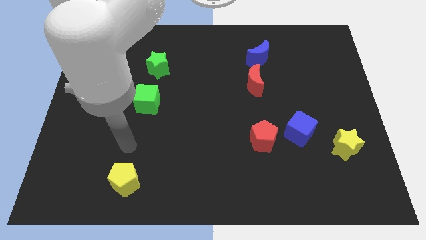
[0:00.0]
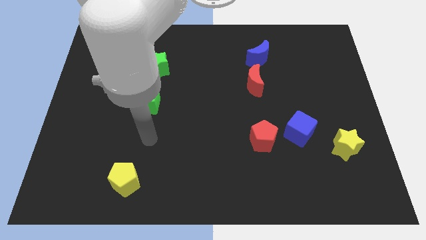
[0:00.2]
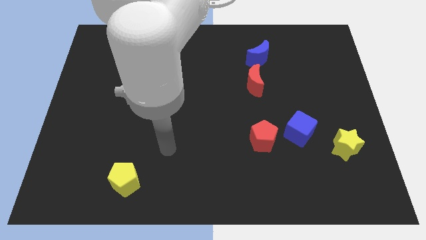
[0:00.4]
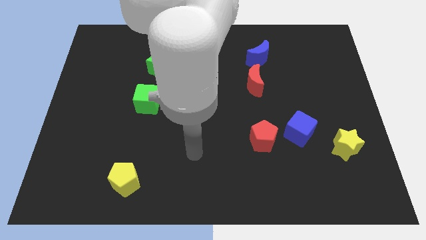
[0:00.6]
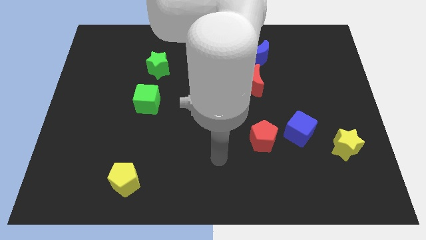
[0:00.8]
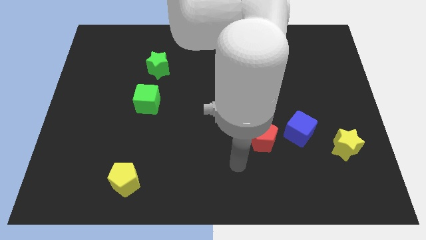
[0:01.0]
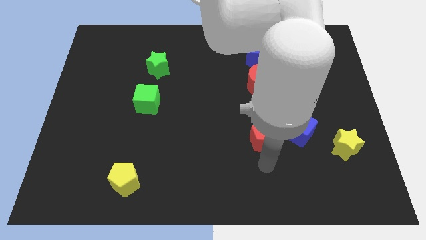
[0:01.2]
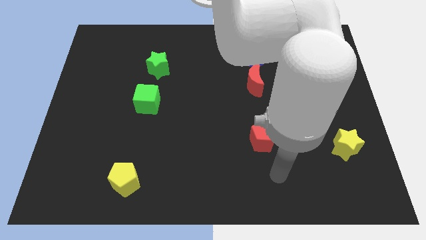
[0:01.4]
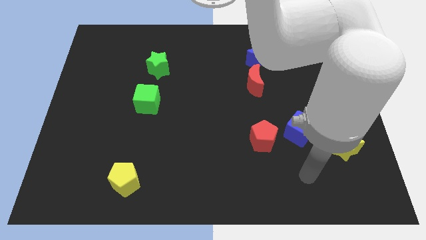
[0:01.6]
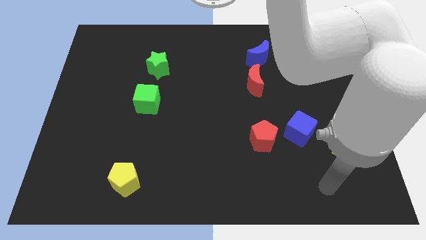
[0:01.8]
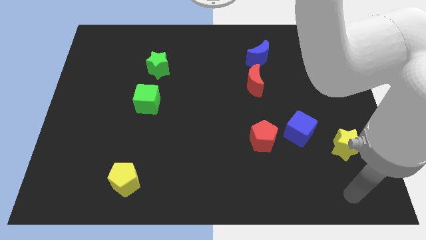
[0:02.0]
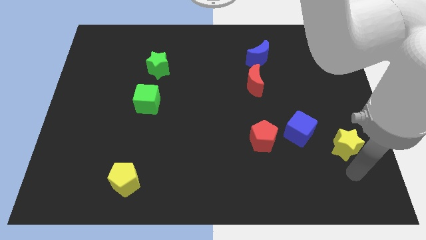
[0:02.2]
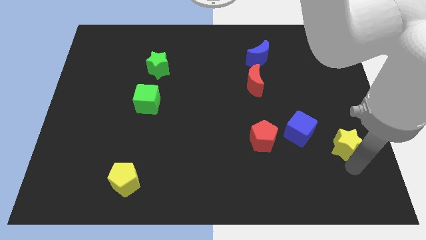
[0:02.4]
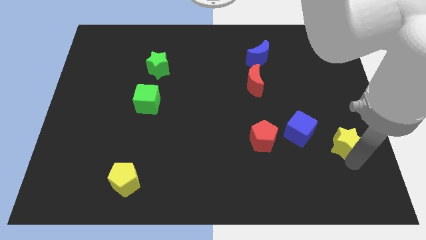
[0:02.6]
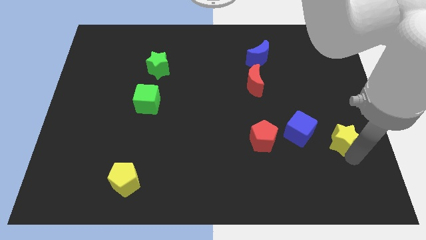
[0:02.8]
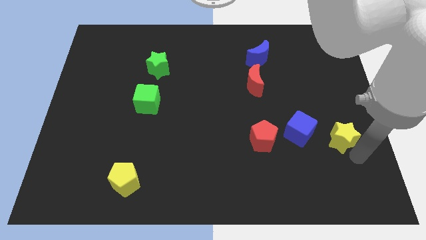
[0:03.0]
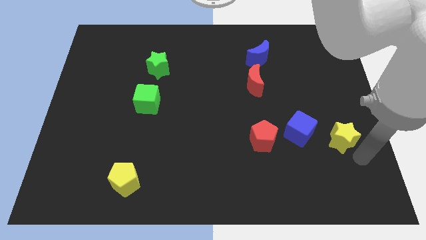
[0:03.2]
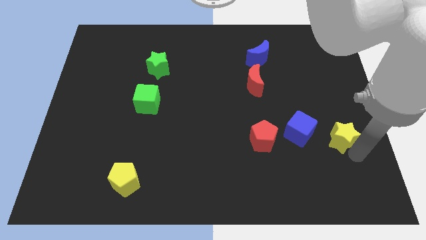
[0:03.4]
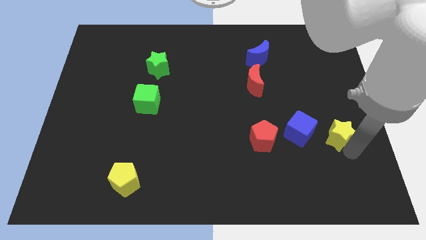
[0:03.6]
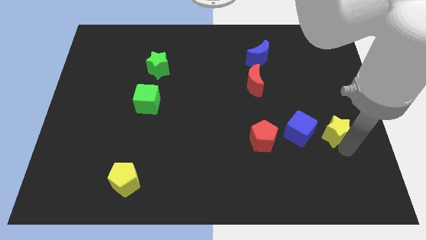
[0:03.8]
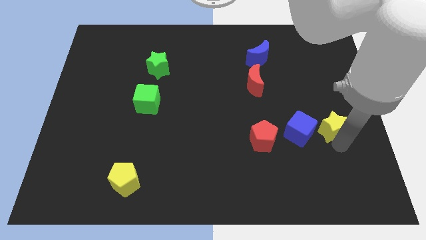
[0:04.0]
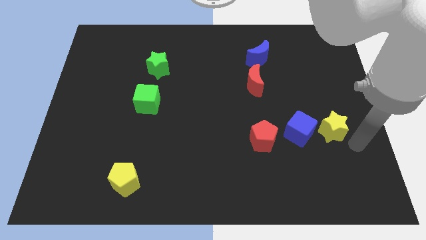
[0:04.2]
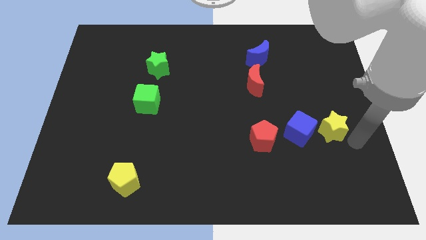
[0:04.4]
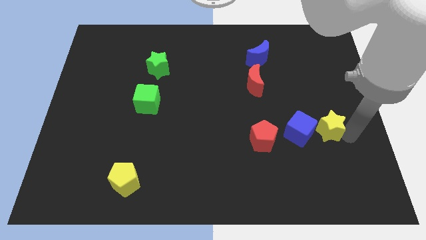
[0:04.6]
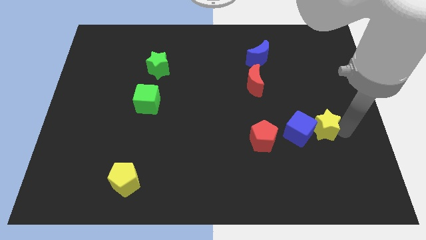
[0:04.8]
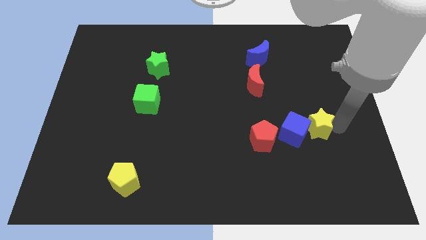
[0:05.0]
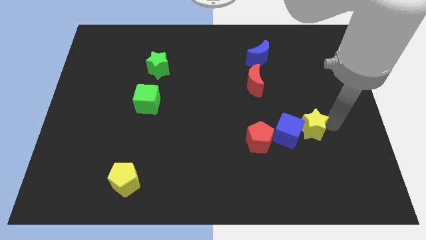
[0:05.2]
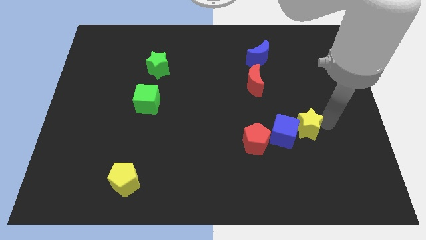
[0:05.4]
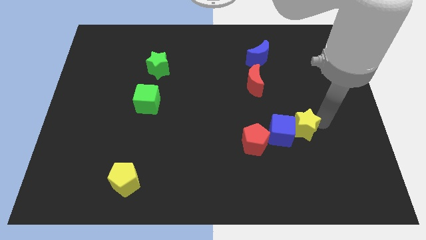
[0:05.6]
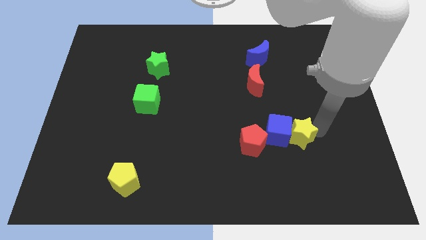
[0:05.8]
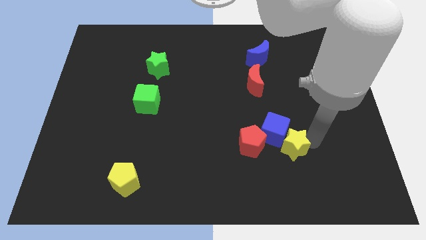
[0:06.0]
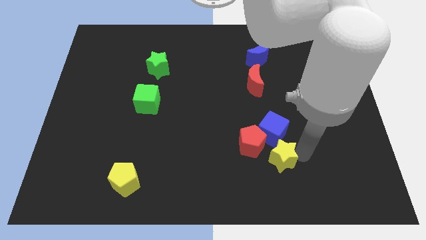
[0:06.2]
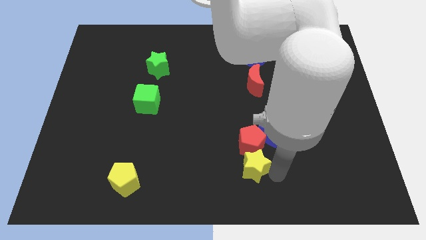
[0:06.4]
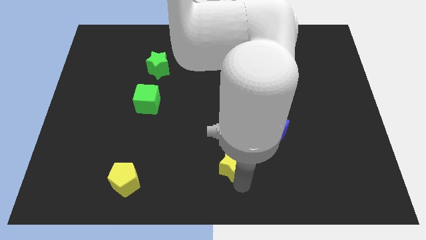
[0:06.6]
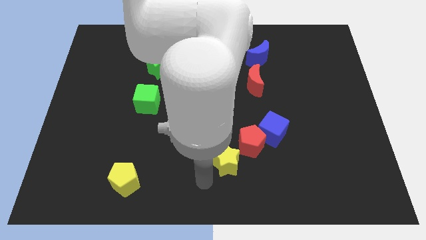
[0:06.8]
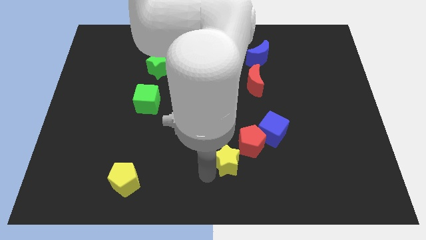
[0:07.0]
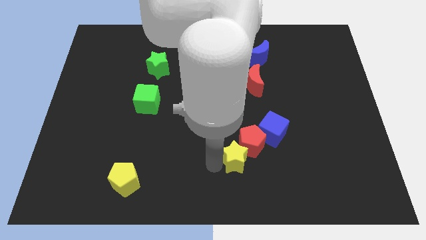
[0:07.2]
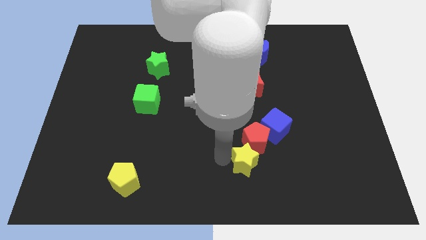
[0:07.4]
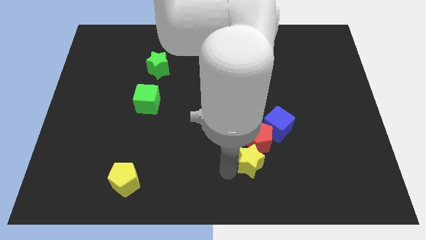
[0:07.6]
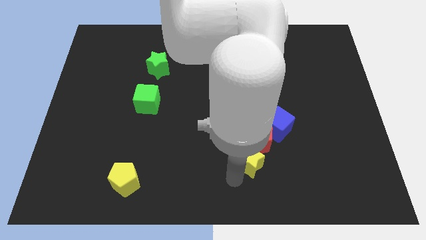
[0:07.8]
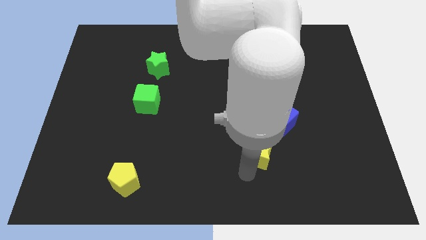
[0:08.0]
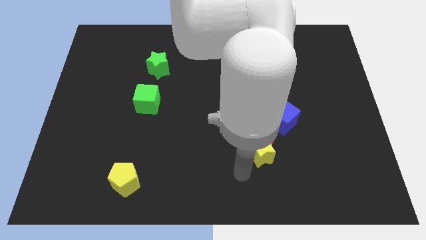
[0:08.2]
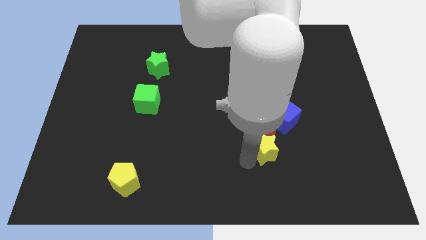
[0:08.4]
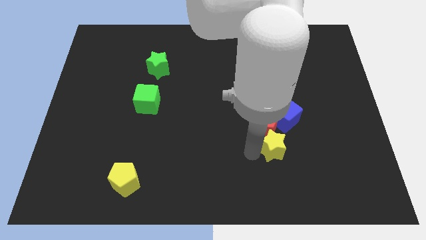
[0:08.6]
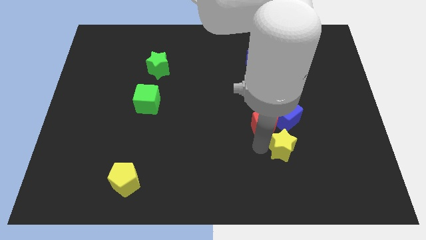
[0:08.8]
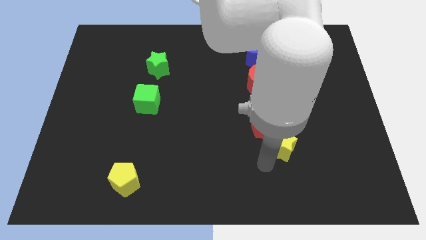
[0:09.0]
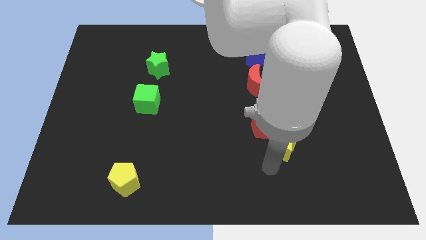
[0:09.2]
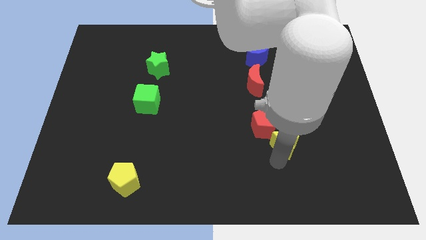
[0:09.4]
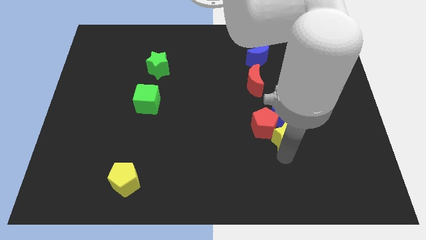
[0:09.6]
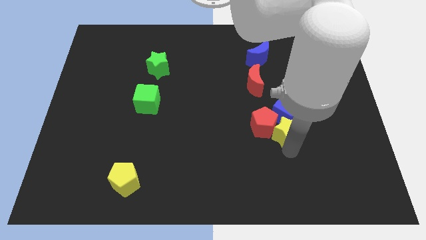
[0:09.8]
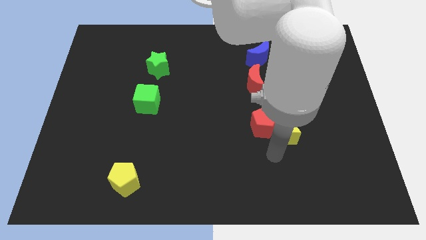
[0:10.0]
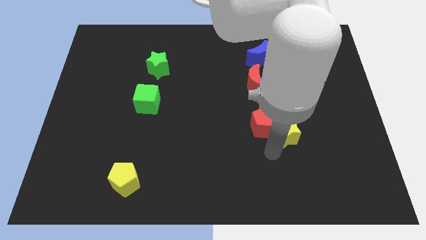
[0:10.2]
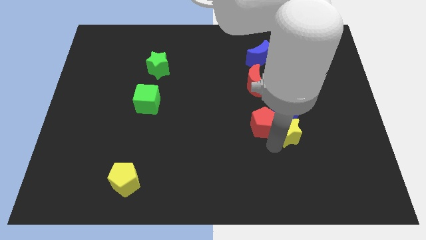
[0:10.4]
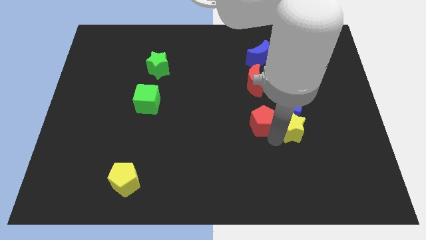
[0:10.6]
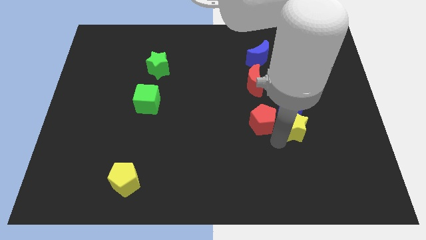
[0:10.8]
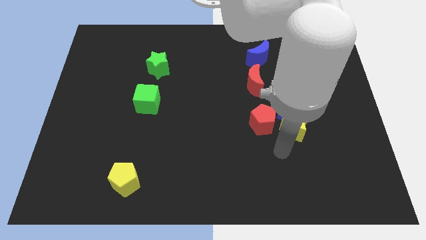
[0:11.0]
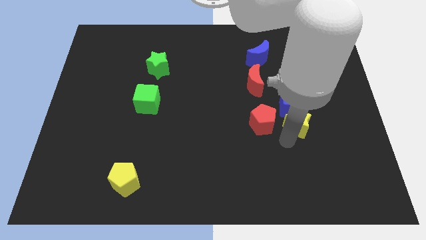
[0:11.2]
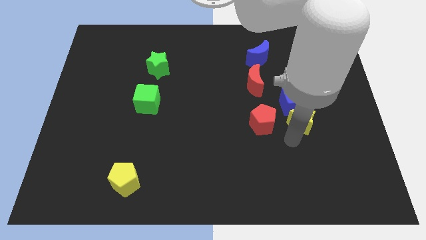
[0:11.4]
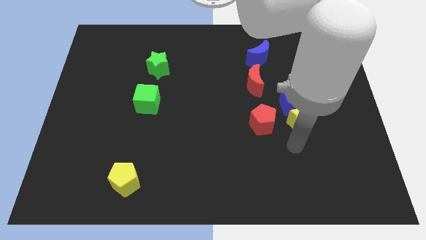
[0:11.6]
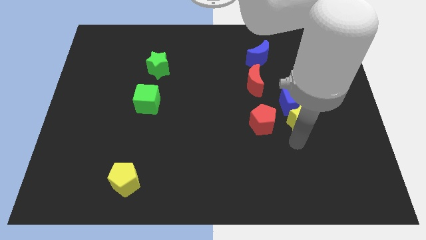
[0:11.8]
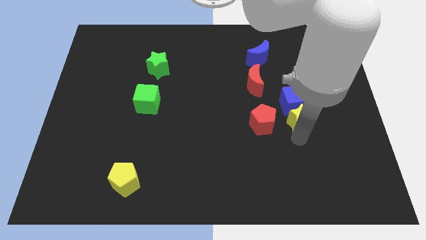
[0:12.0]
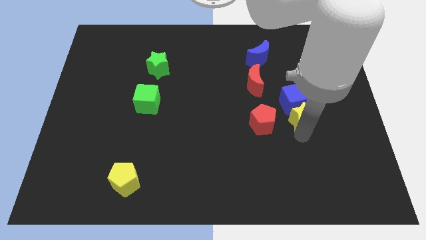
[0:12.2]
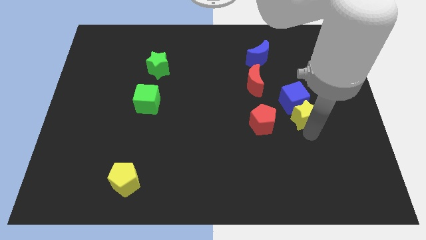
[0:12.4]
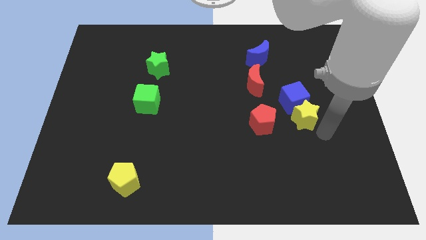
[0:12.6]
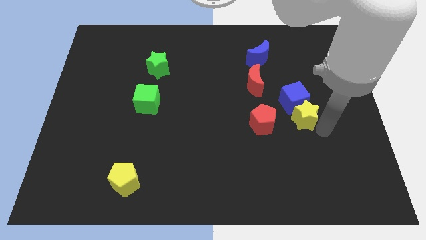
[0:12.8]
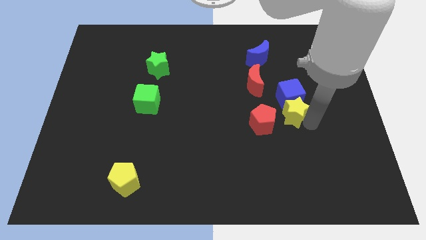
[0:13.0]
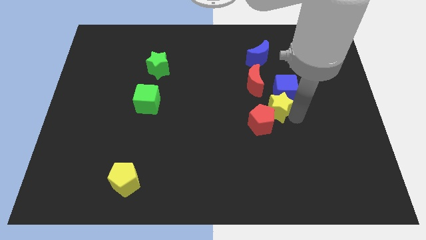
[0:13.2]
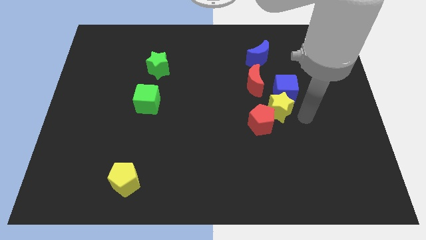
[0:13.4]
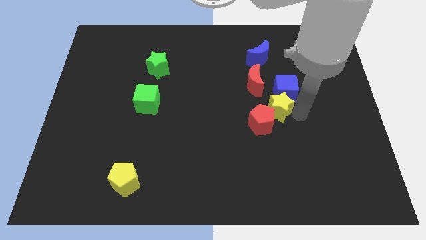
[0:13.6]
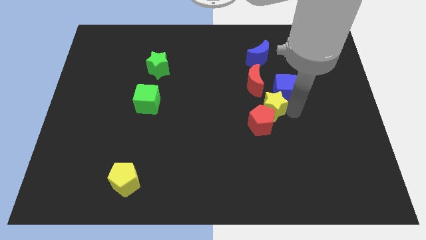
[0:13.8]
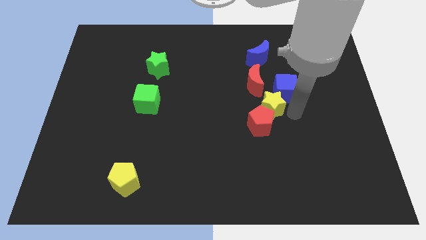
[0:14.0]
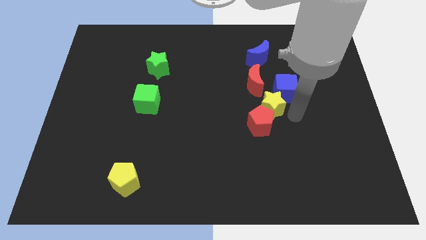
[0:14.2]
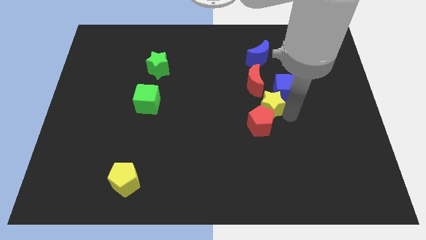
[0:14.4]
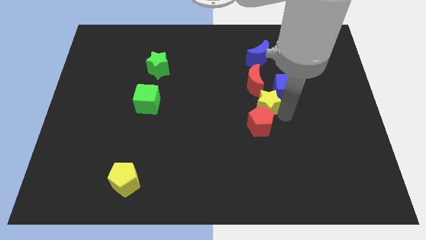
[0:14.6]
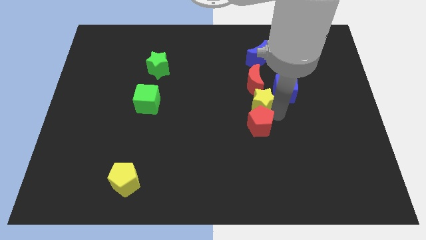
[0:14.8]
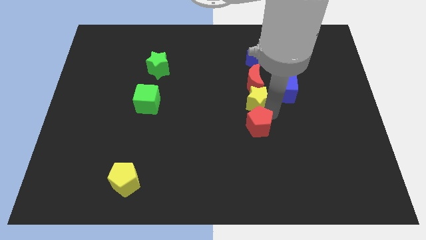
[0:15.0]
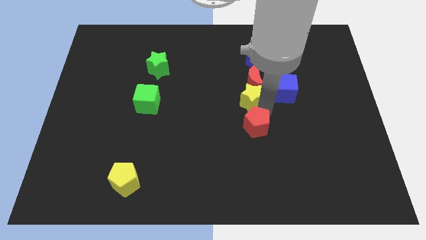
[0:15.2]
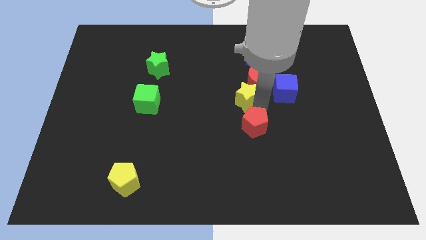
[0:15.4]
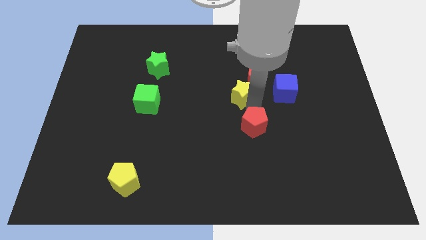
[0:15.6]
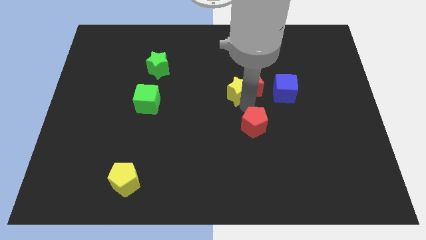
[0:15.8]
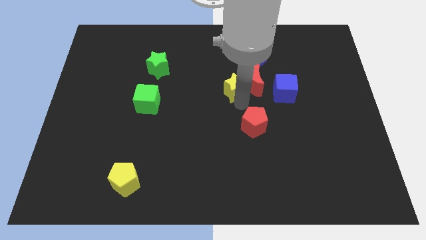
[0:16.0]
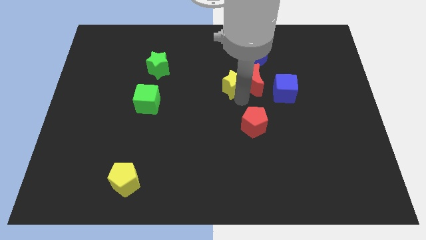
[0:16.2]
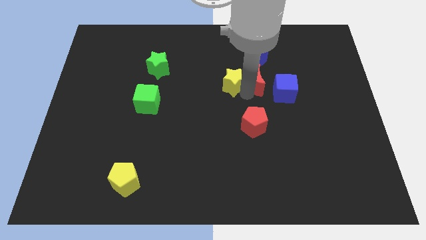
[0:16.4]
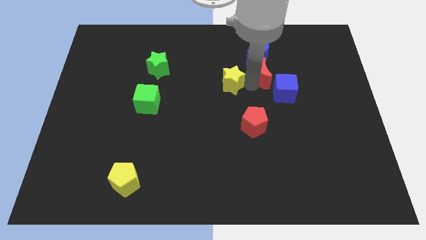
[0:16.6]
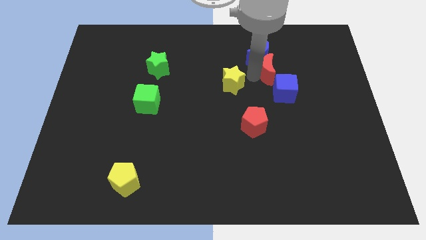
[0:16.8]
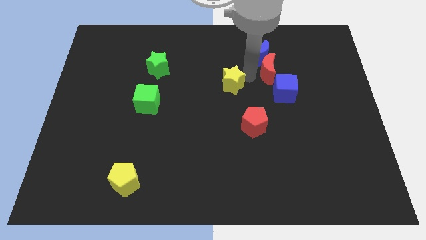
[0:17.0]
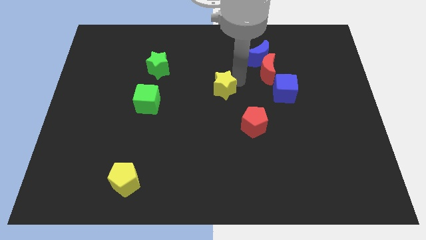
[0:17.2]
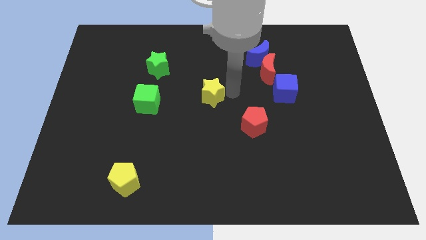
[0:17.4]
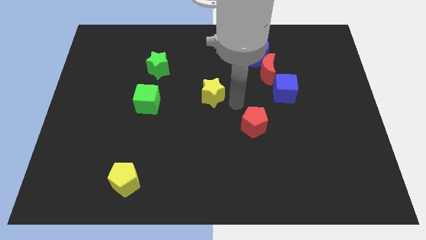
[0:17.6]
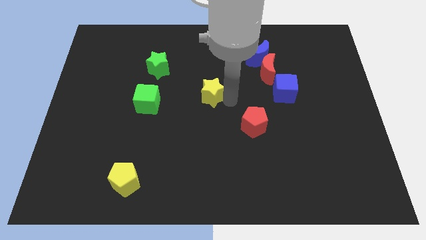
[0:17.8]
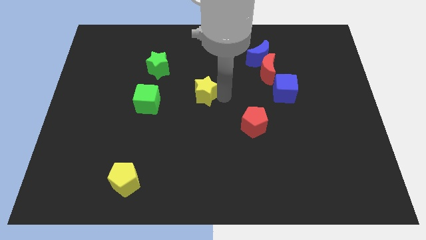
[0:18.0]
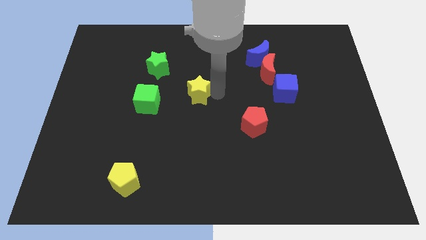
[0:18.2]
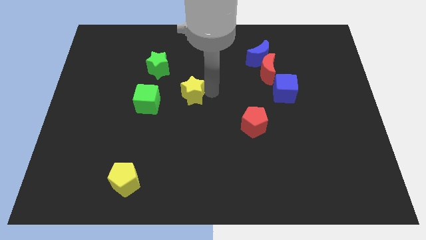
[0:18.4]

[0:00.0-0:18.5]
put the yellow star diagonally down and to the right of the green star
